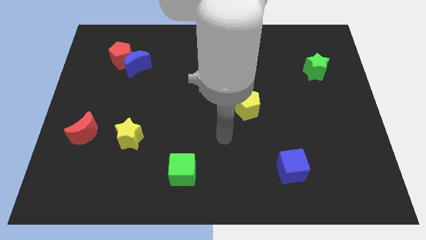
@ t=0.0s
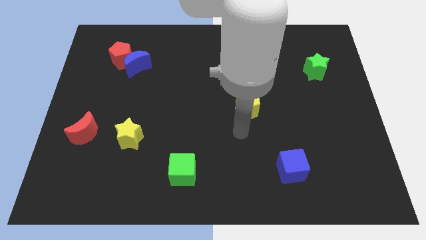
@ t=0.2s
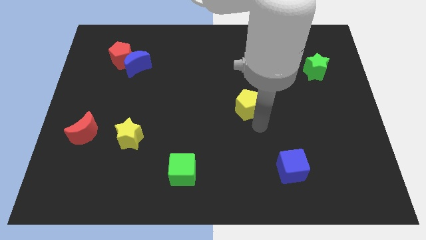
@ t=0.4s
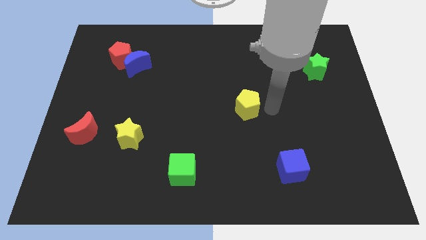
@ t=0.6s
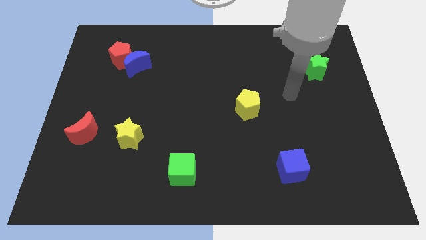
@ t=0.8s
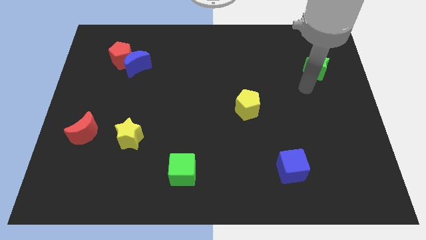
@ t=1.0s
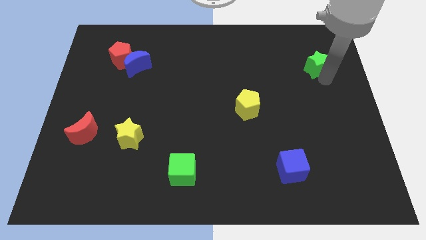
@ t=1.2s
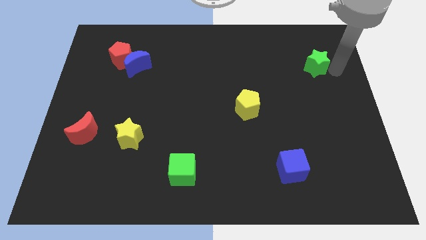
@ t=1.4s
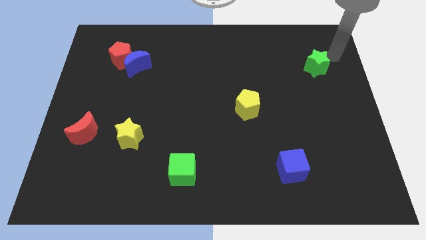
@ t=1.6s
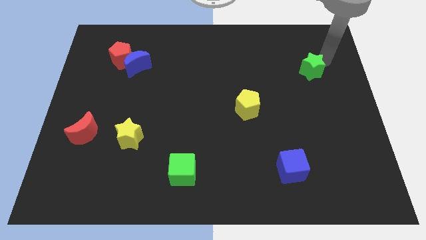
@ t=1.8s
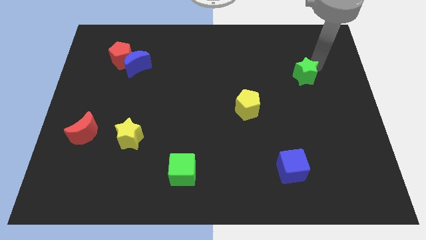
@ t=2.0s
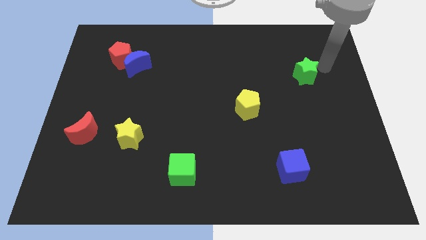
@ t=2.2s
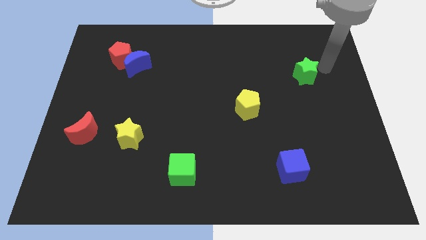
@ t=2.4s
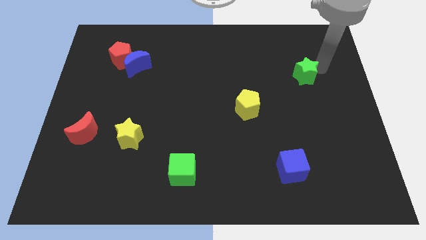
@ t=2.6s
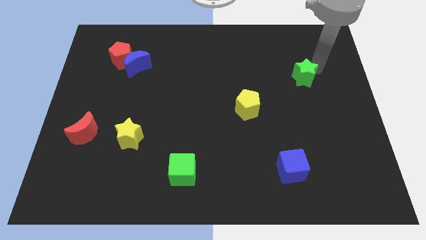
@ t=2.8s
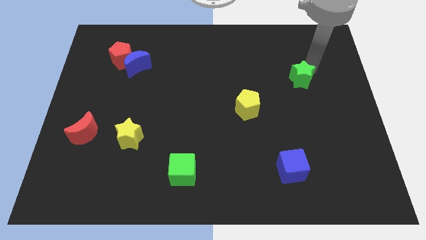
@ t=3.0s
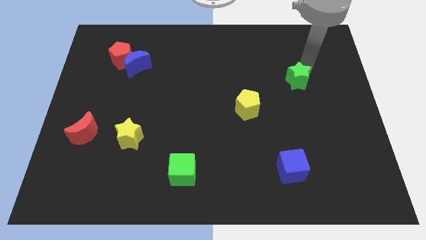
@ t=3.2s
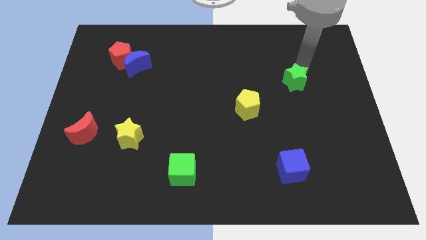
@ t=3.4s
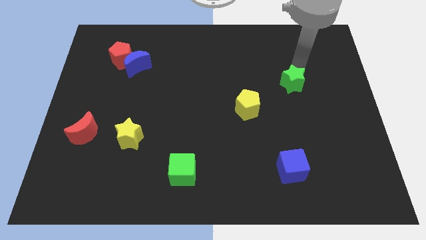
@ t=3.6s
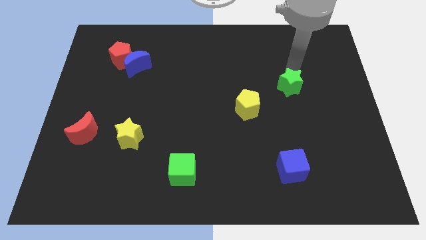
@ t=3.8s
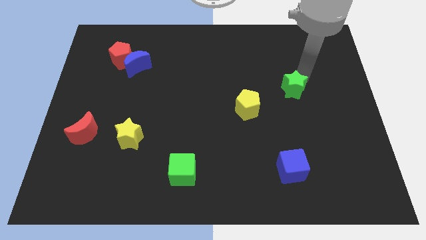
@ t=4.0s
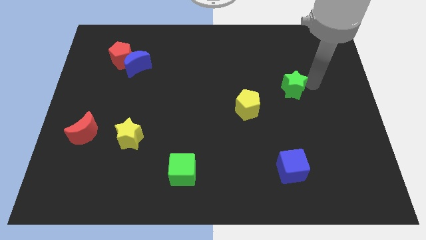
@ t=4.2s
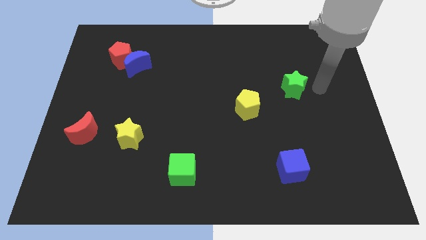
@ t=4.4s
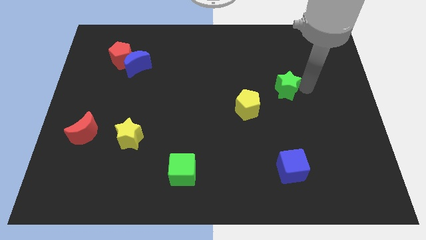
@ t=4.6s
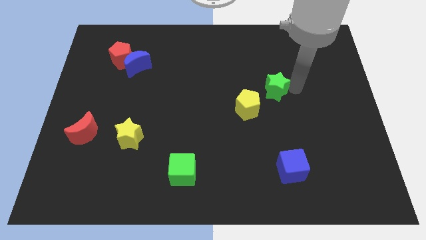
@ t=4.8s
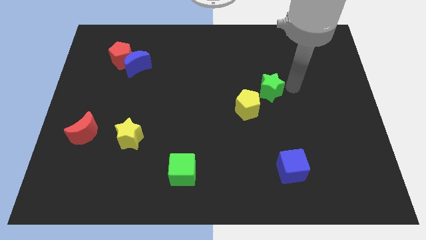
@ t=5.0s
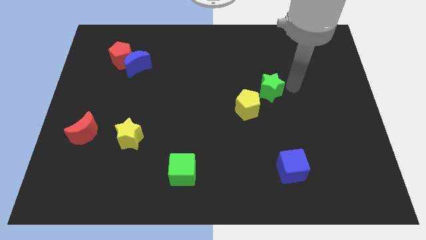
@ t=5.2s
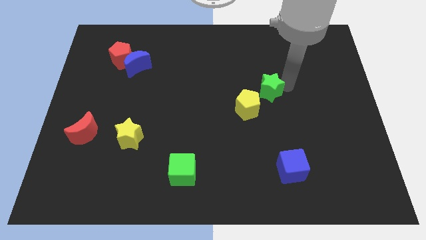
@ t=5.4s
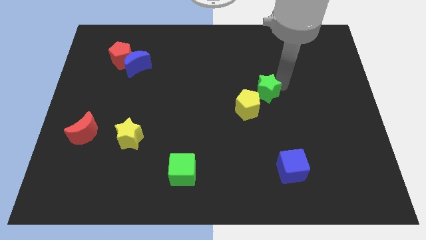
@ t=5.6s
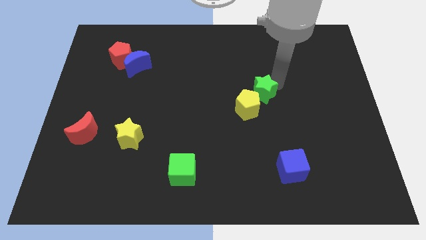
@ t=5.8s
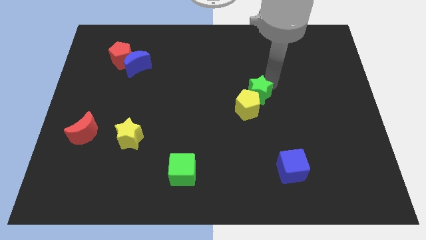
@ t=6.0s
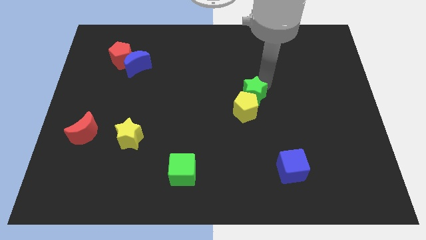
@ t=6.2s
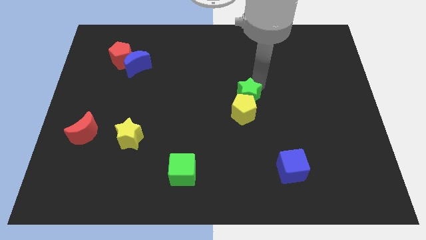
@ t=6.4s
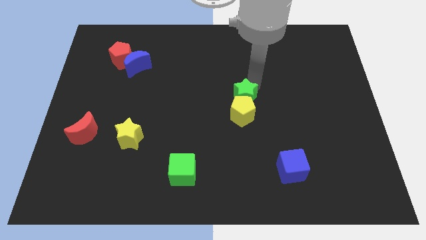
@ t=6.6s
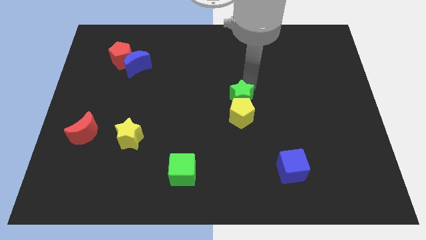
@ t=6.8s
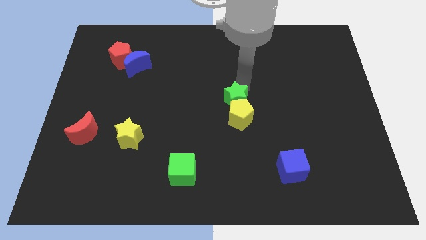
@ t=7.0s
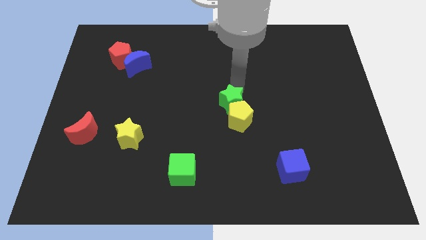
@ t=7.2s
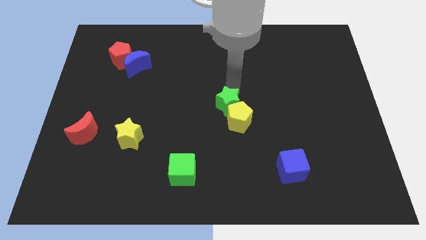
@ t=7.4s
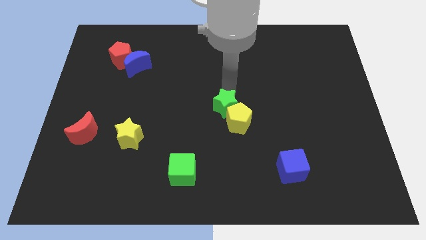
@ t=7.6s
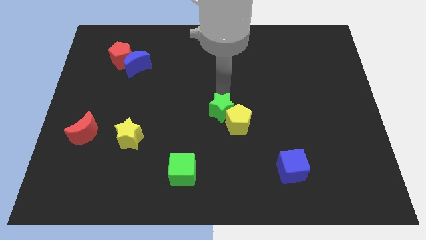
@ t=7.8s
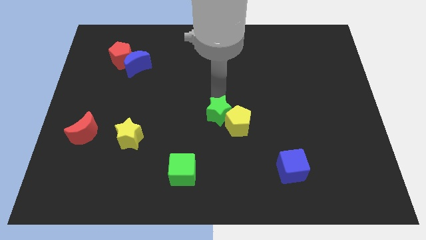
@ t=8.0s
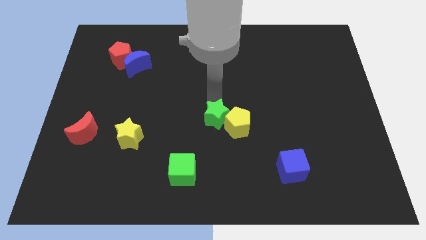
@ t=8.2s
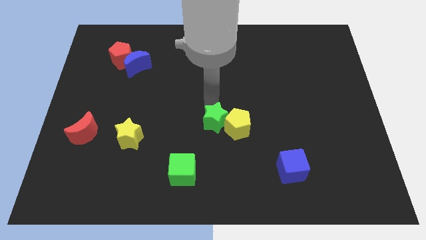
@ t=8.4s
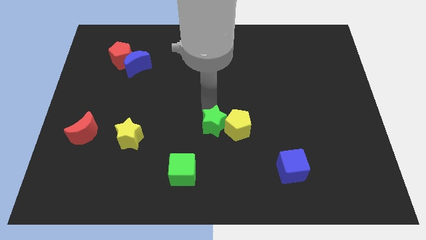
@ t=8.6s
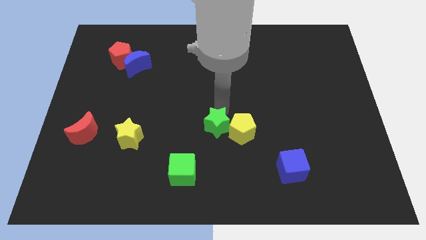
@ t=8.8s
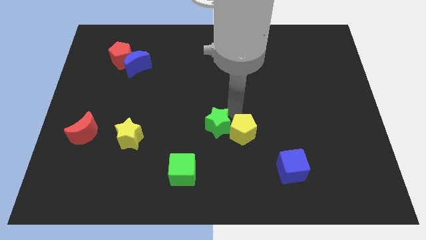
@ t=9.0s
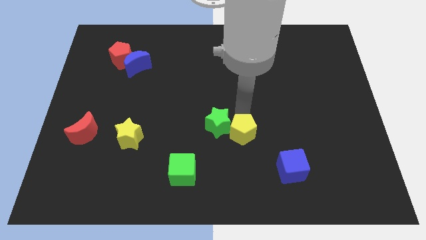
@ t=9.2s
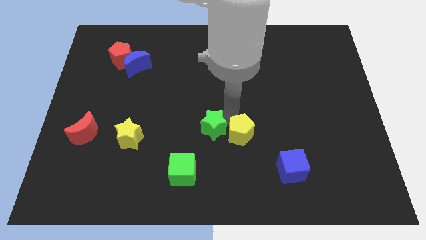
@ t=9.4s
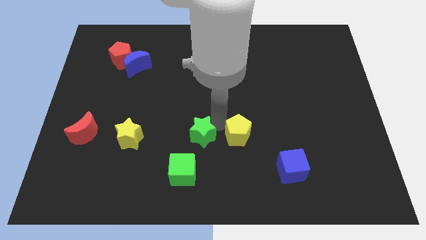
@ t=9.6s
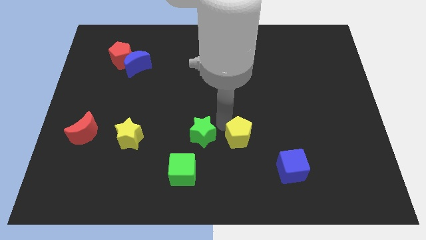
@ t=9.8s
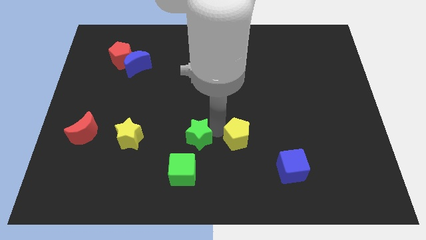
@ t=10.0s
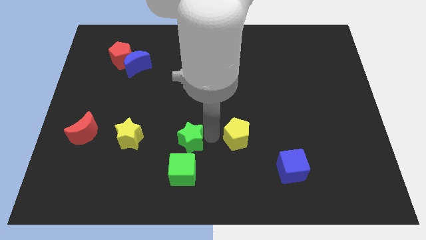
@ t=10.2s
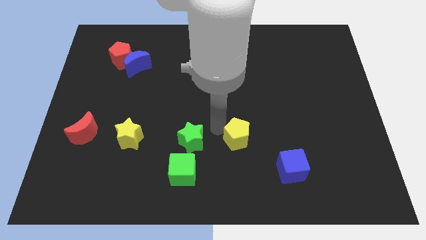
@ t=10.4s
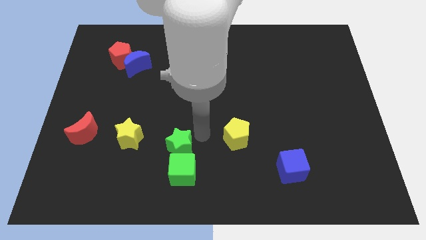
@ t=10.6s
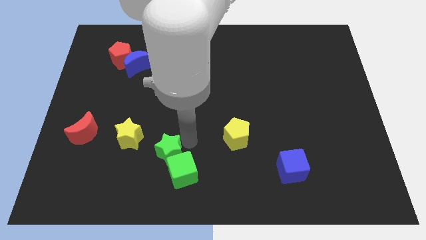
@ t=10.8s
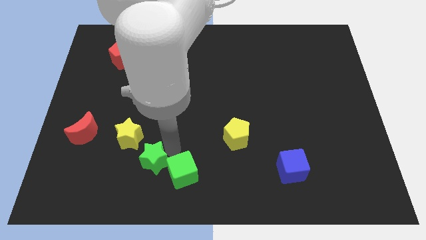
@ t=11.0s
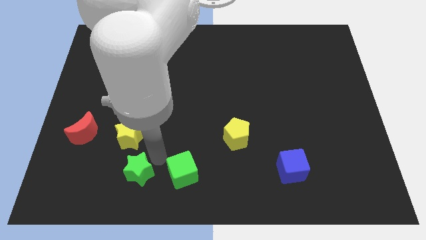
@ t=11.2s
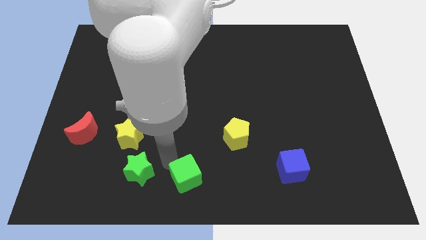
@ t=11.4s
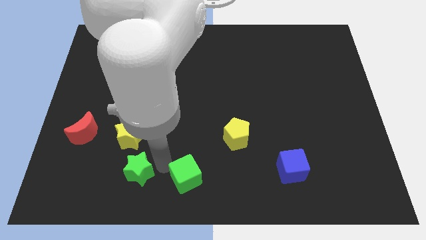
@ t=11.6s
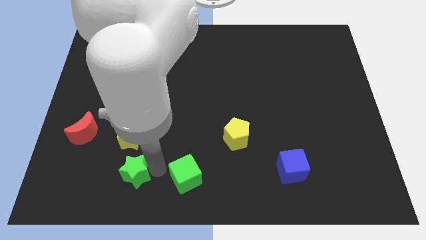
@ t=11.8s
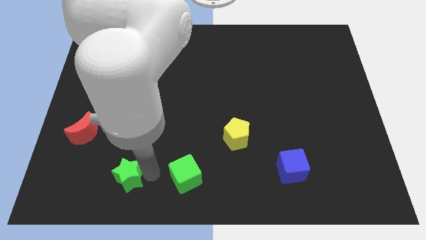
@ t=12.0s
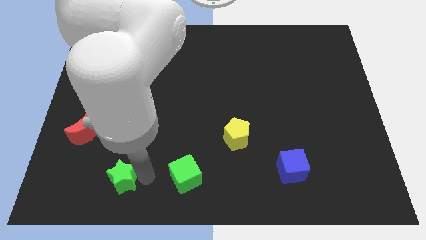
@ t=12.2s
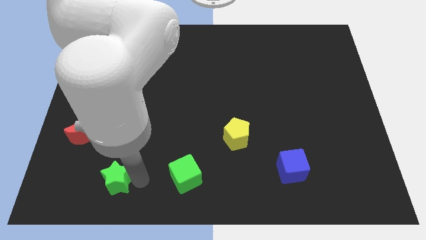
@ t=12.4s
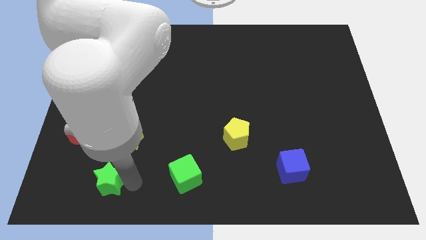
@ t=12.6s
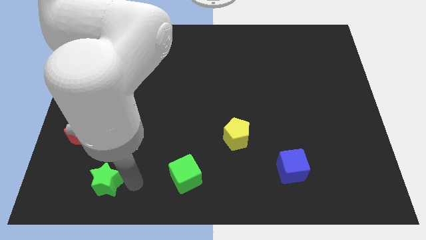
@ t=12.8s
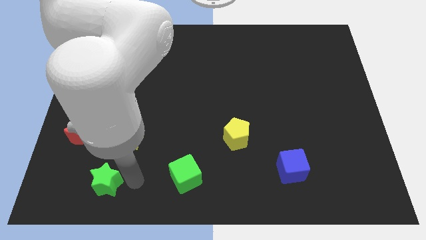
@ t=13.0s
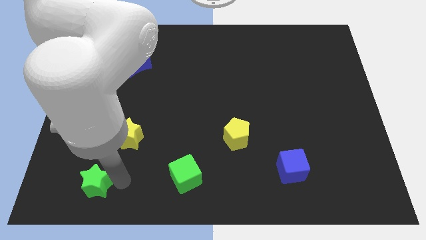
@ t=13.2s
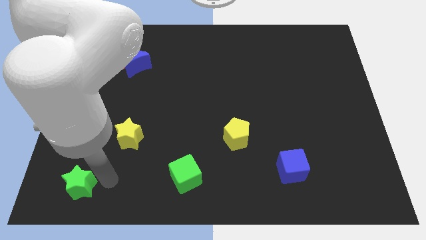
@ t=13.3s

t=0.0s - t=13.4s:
move the green star to the bottom left corner
